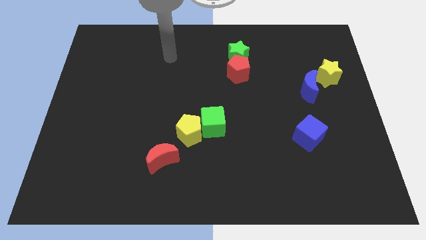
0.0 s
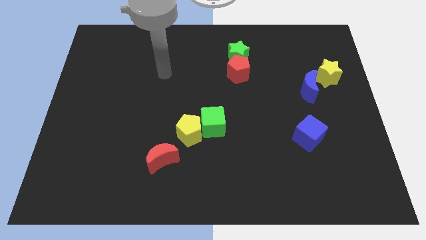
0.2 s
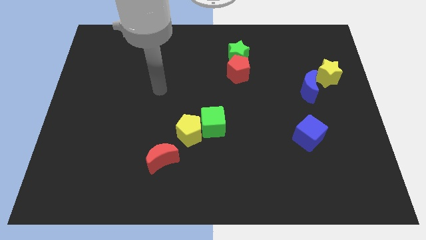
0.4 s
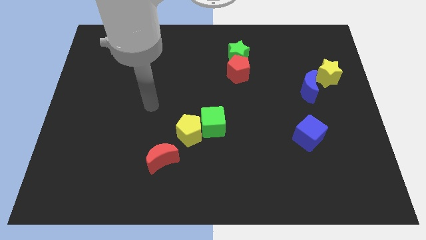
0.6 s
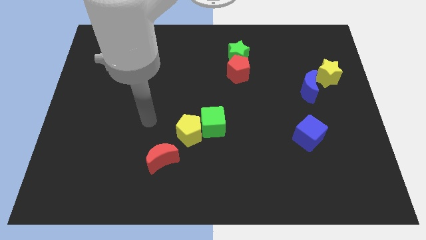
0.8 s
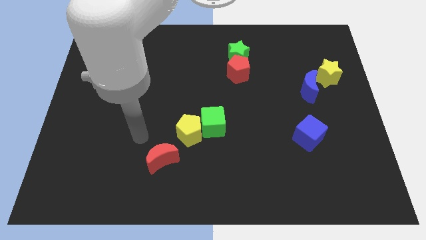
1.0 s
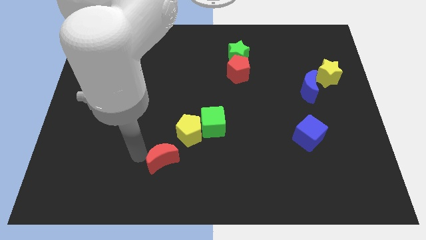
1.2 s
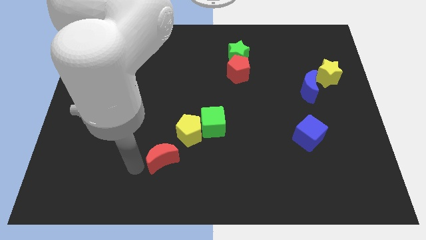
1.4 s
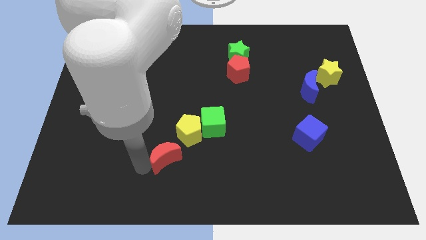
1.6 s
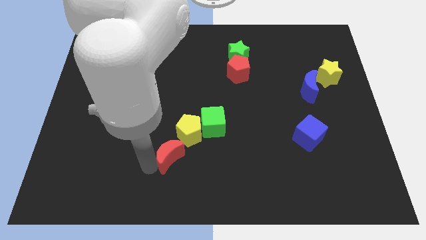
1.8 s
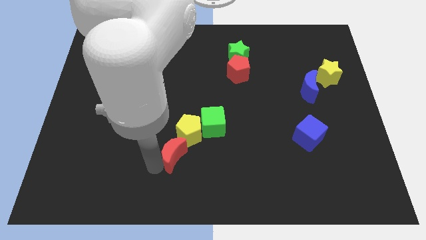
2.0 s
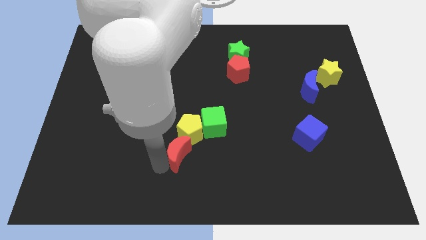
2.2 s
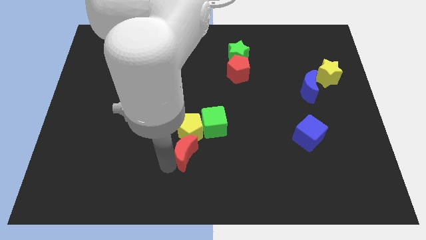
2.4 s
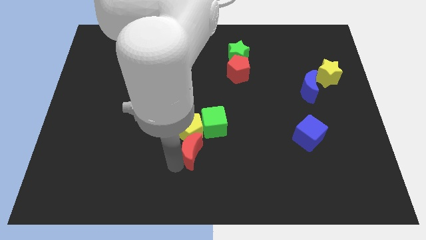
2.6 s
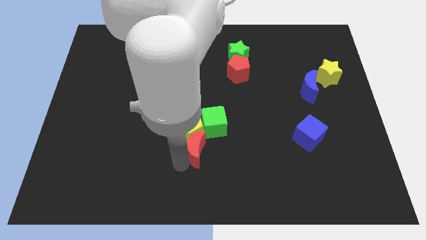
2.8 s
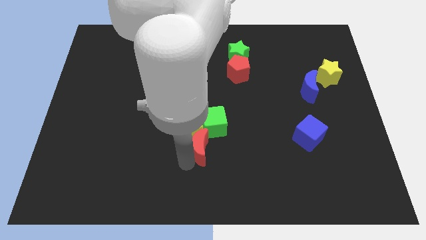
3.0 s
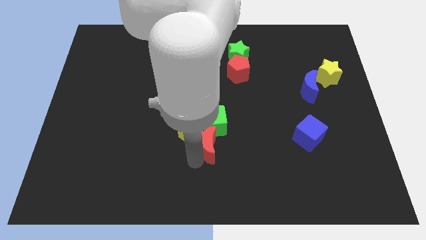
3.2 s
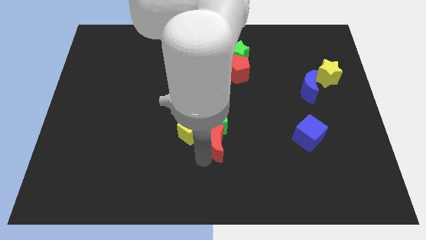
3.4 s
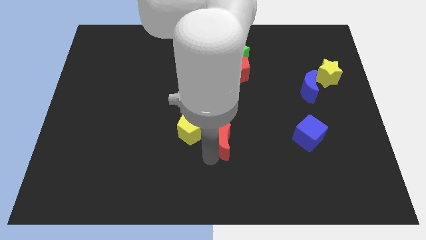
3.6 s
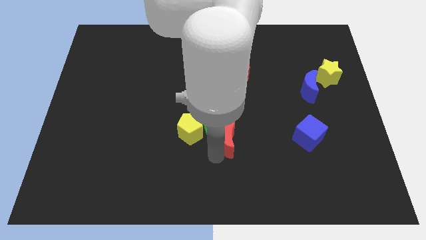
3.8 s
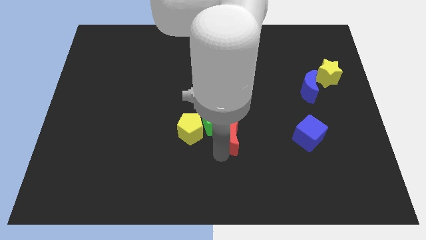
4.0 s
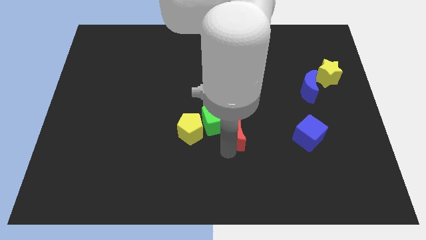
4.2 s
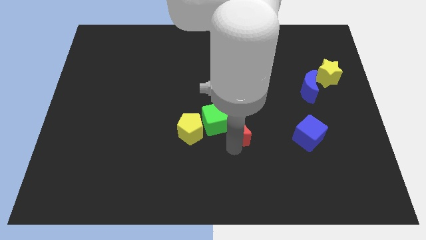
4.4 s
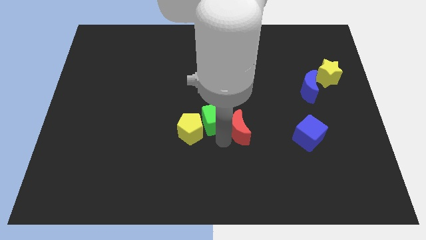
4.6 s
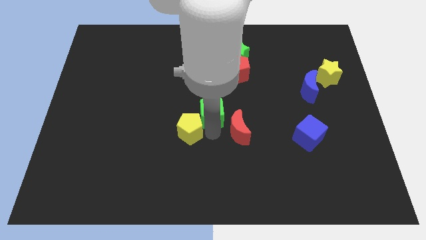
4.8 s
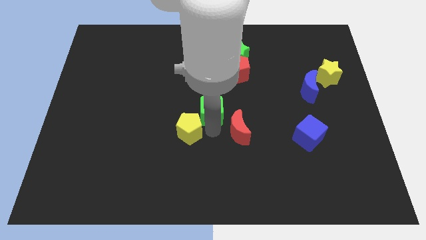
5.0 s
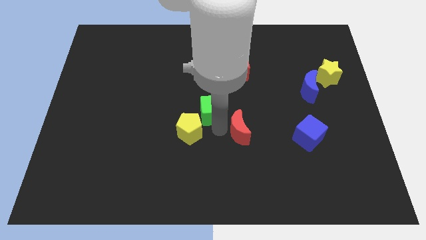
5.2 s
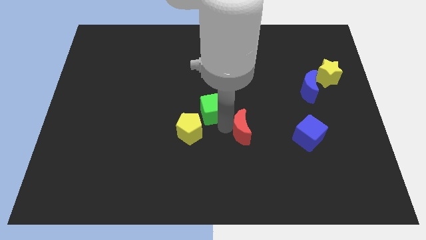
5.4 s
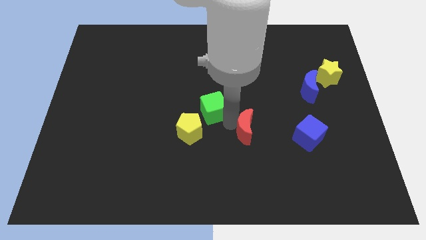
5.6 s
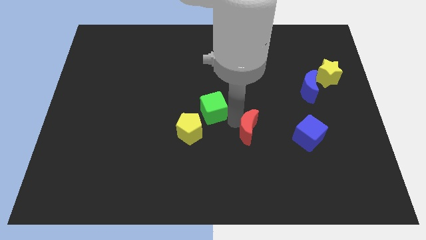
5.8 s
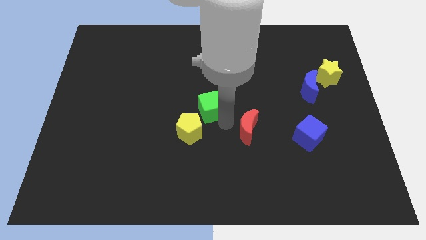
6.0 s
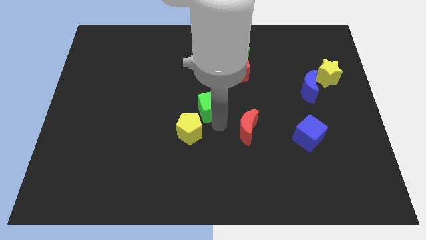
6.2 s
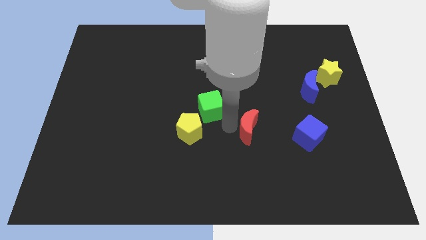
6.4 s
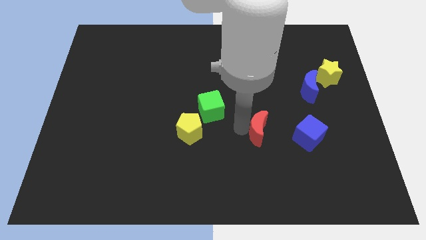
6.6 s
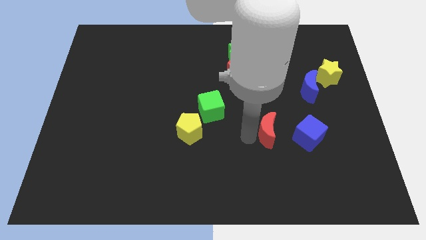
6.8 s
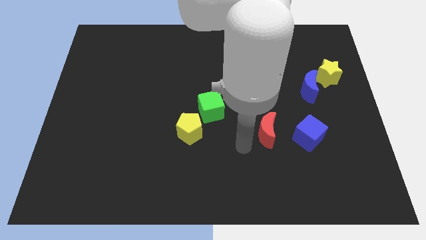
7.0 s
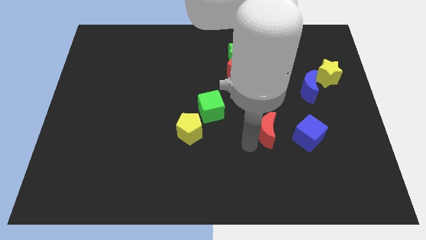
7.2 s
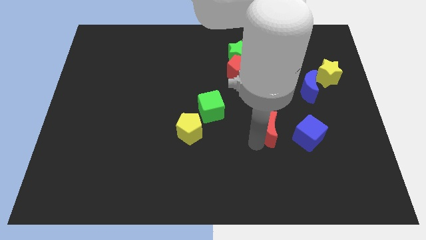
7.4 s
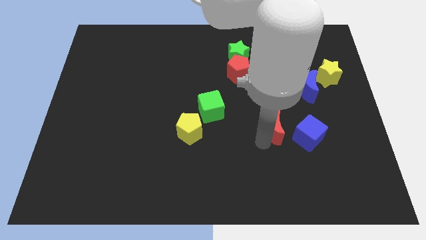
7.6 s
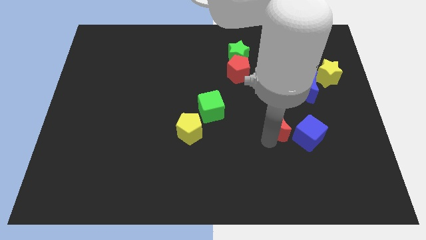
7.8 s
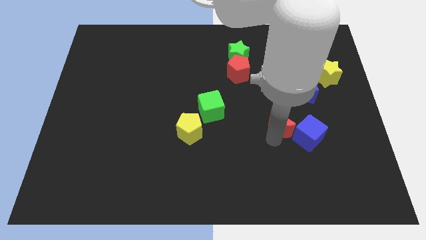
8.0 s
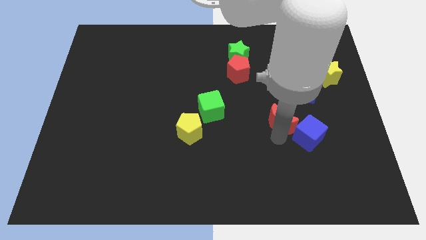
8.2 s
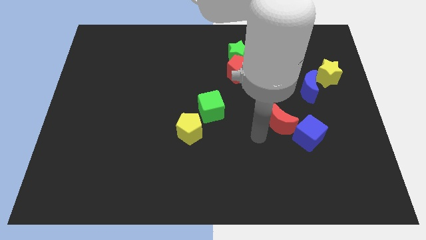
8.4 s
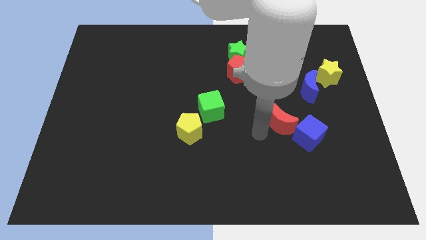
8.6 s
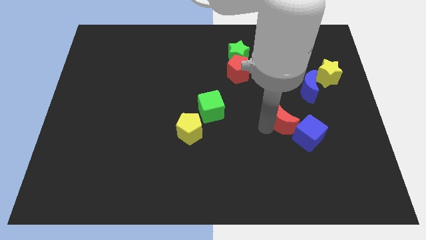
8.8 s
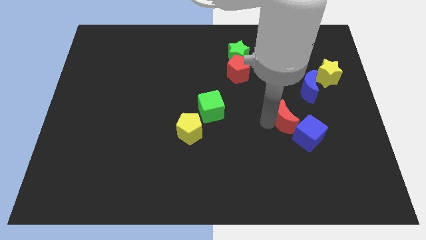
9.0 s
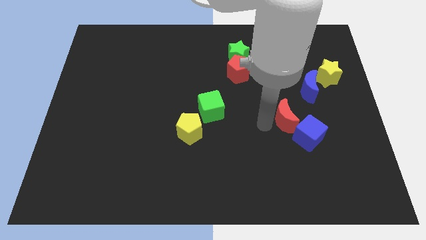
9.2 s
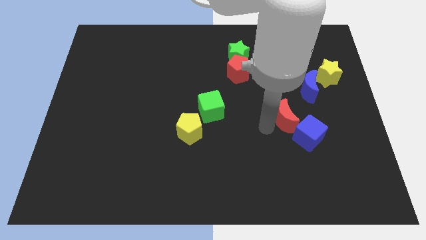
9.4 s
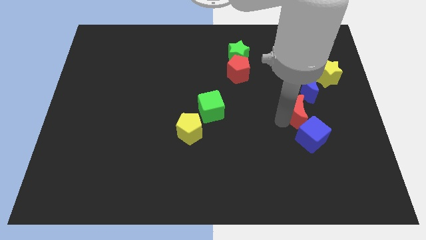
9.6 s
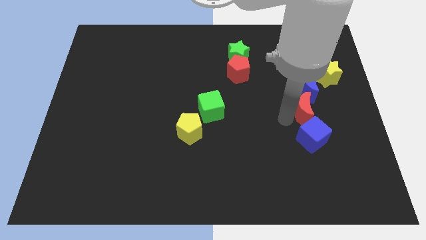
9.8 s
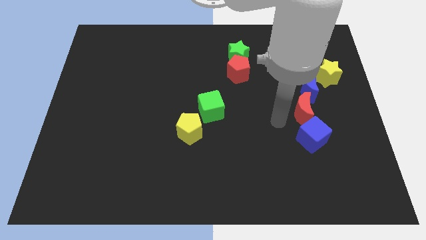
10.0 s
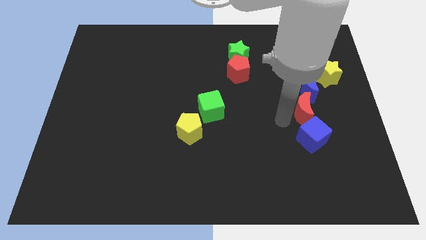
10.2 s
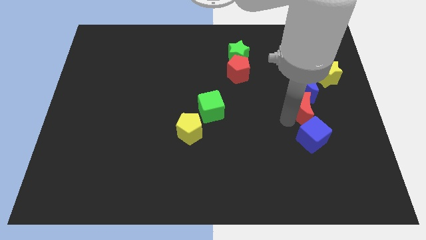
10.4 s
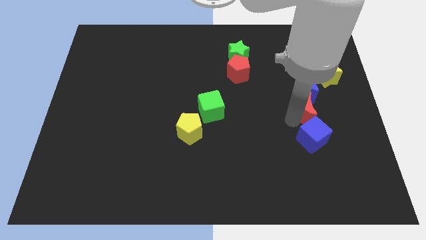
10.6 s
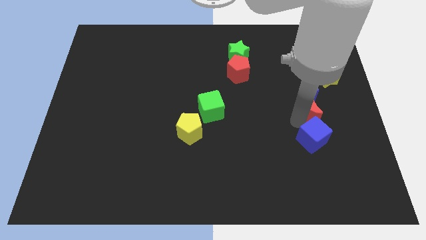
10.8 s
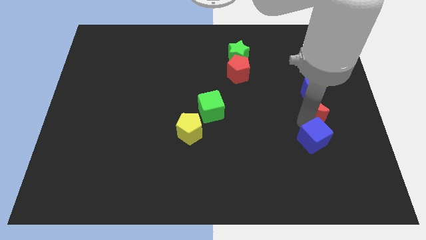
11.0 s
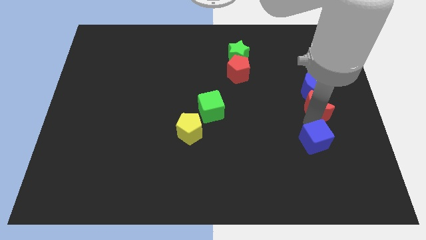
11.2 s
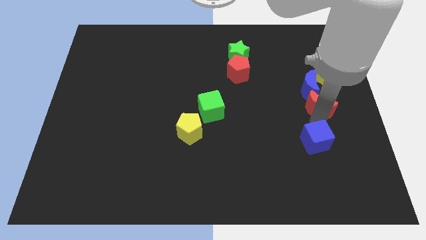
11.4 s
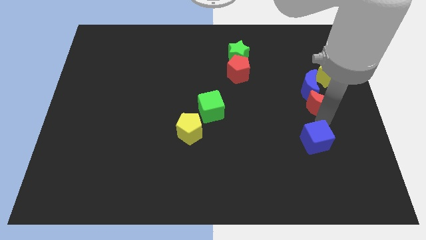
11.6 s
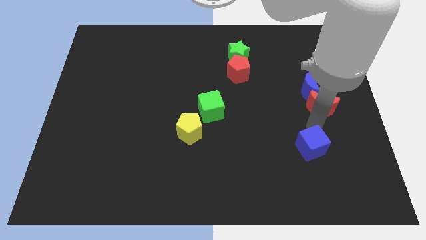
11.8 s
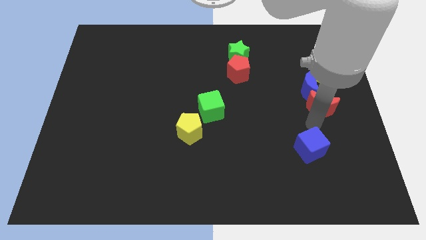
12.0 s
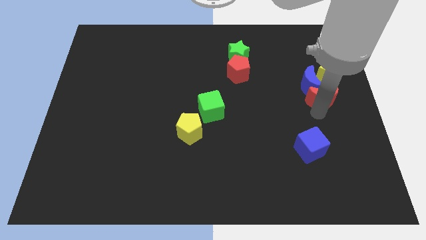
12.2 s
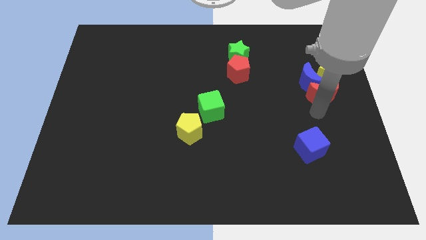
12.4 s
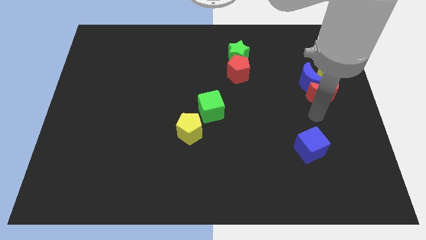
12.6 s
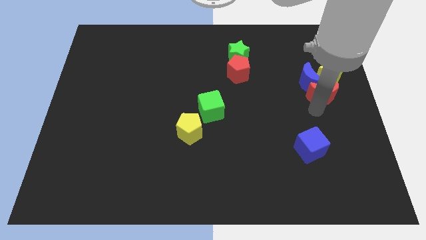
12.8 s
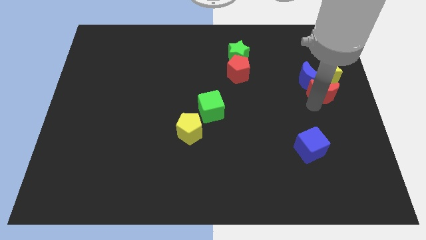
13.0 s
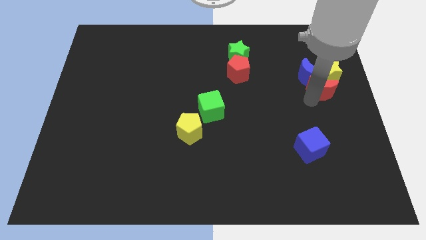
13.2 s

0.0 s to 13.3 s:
push the red moon close to the yellow star

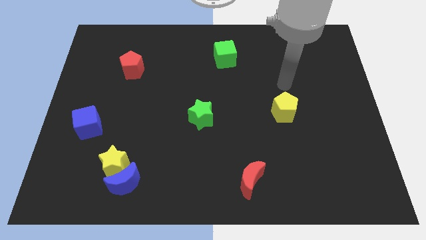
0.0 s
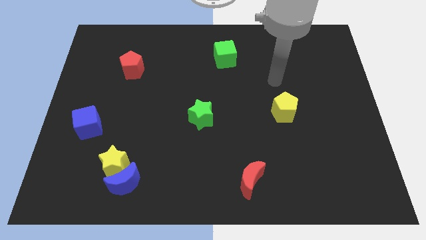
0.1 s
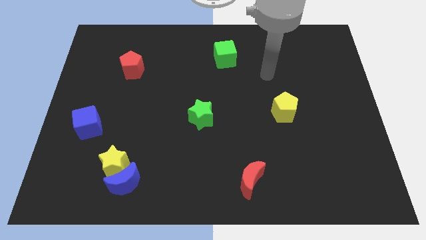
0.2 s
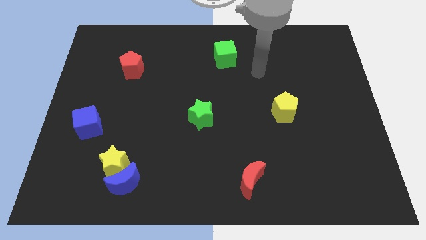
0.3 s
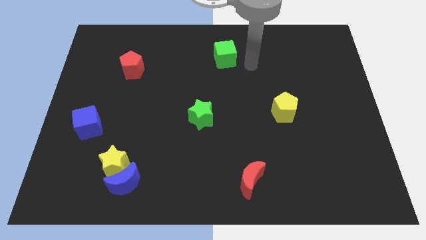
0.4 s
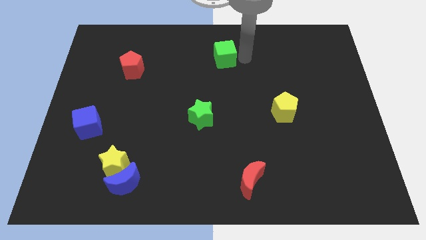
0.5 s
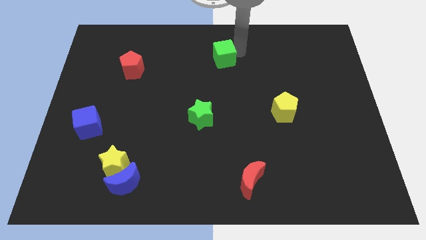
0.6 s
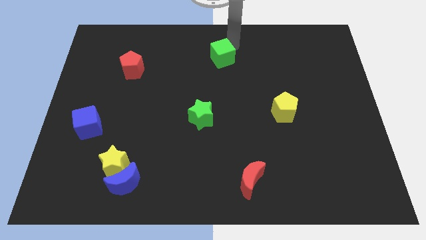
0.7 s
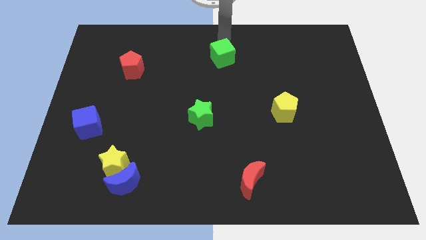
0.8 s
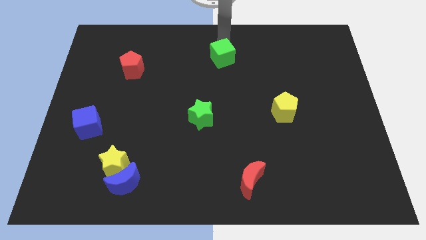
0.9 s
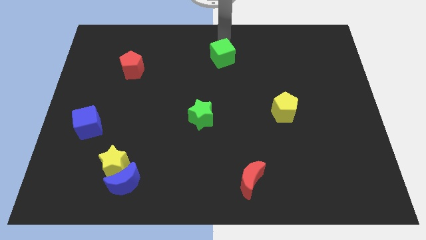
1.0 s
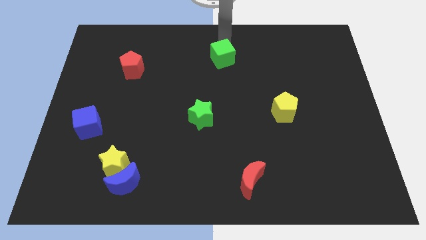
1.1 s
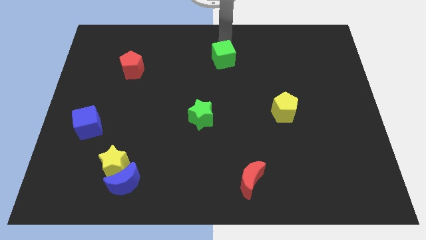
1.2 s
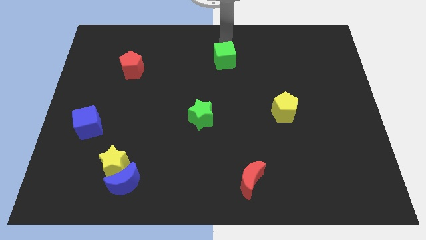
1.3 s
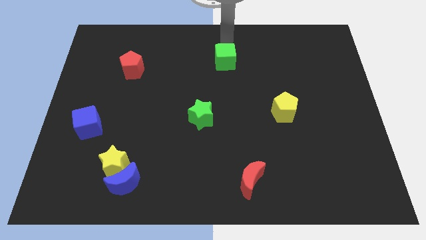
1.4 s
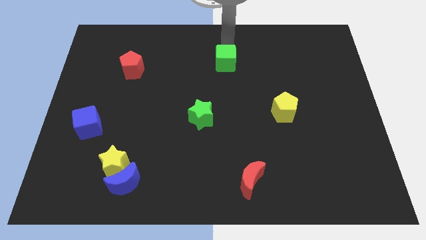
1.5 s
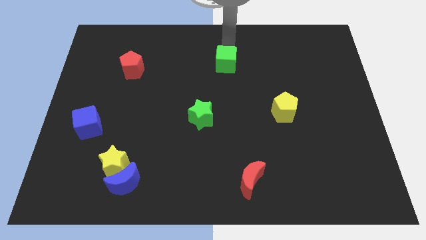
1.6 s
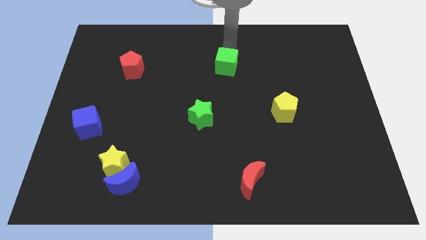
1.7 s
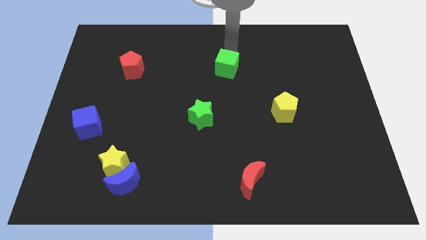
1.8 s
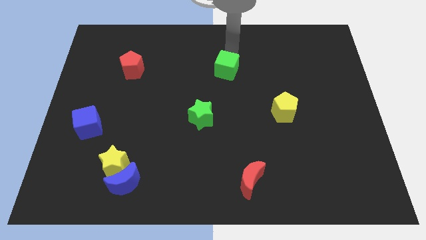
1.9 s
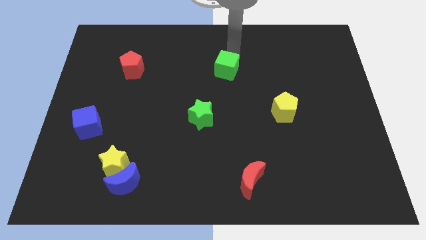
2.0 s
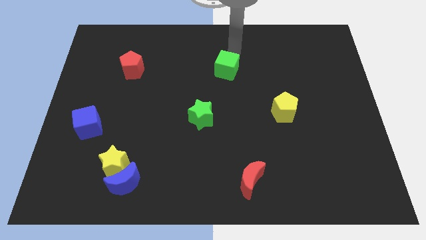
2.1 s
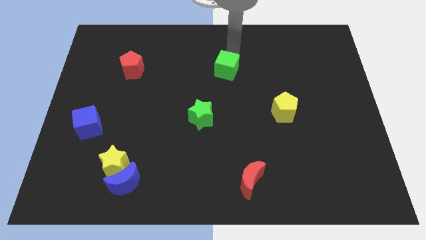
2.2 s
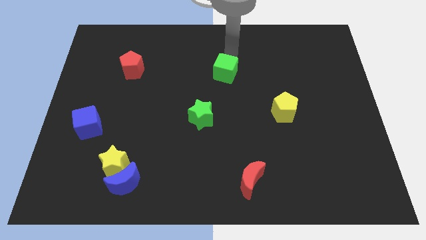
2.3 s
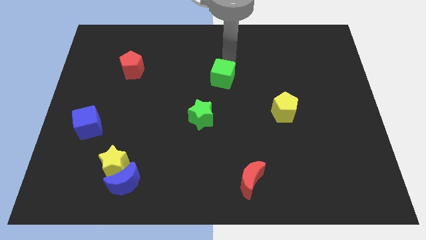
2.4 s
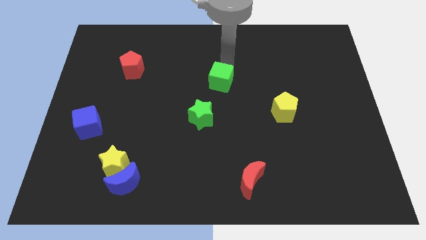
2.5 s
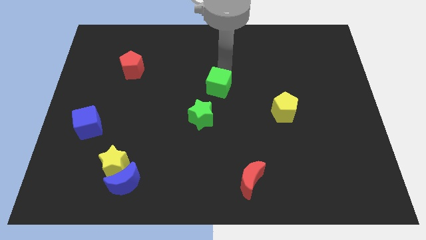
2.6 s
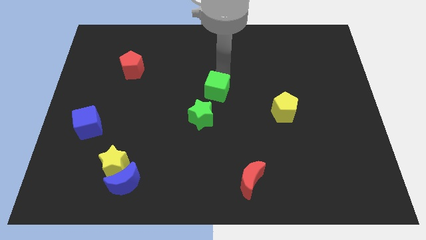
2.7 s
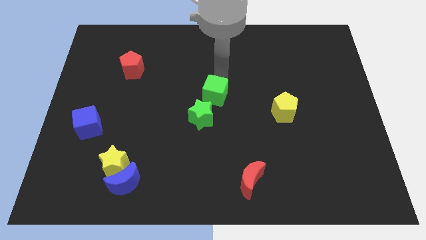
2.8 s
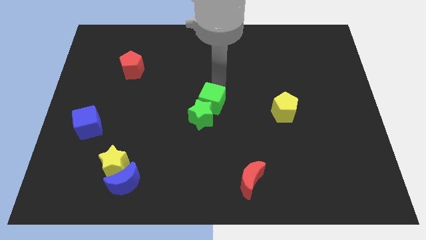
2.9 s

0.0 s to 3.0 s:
move the green cube next to the green star
